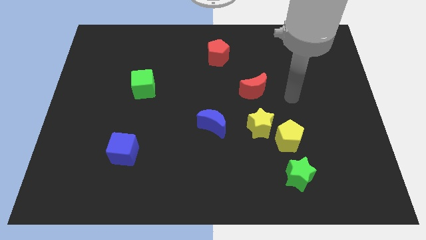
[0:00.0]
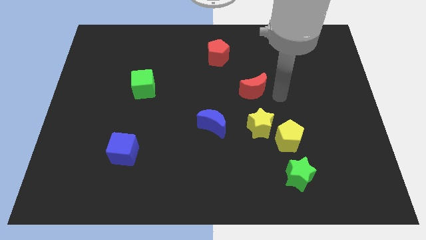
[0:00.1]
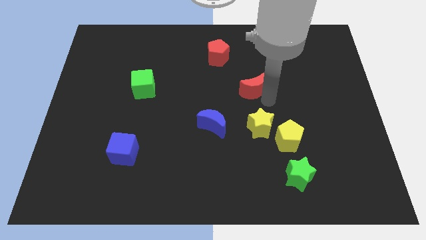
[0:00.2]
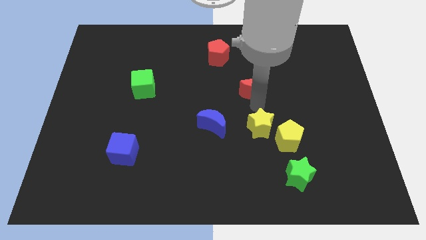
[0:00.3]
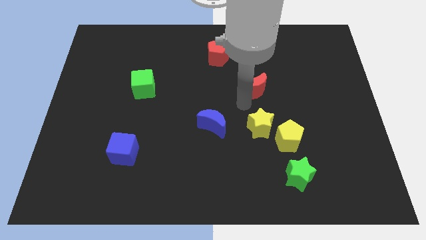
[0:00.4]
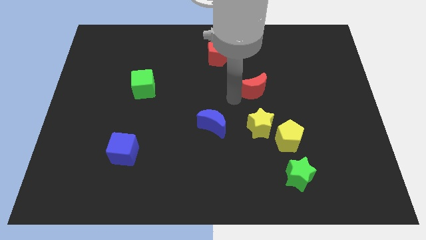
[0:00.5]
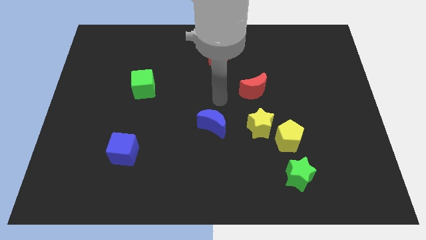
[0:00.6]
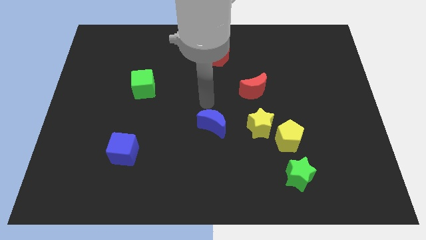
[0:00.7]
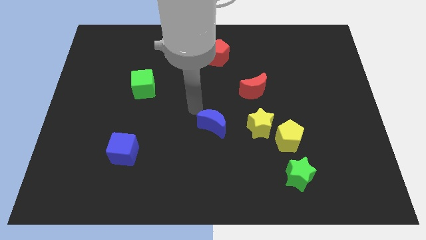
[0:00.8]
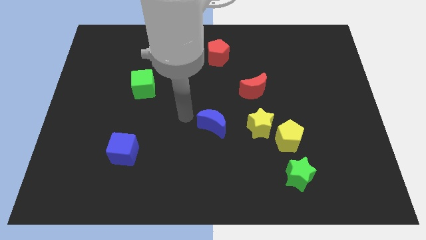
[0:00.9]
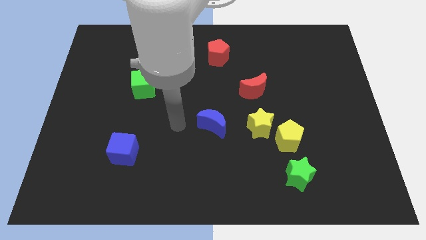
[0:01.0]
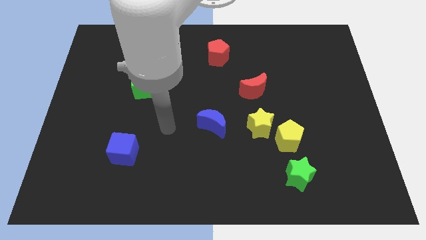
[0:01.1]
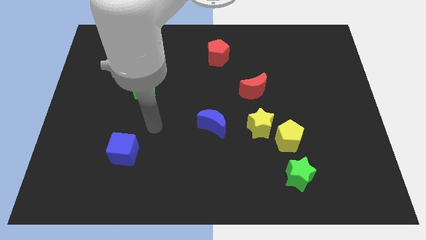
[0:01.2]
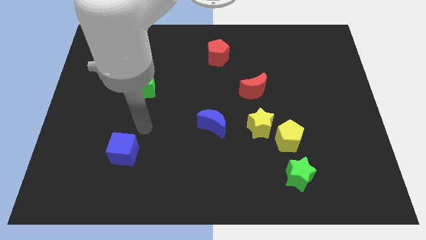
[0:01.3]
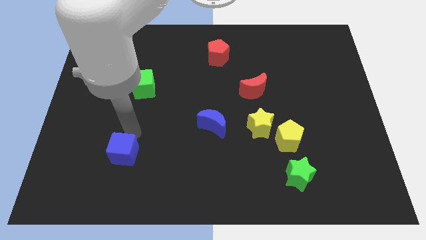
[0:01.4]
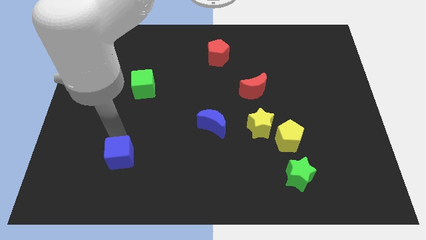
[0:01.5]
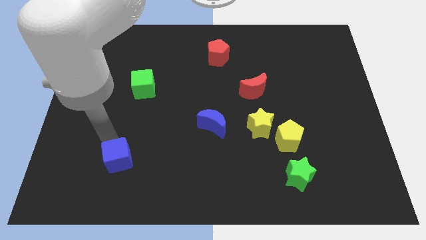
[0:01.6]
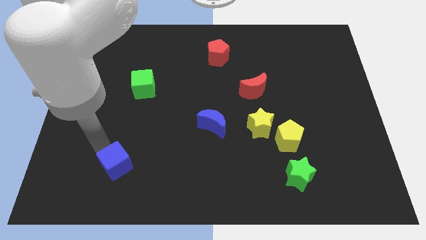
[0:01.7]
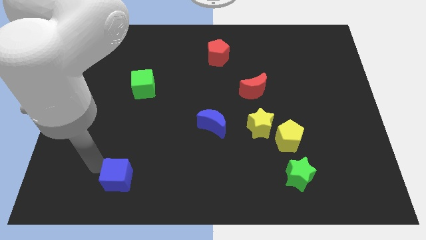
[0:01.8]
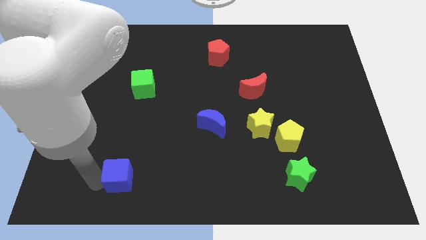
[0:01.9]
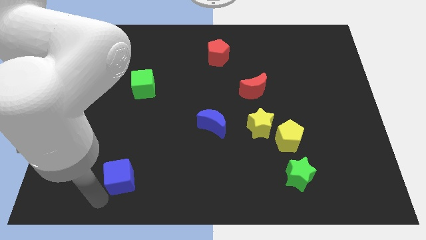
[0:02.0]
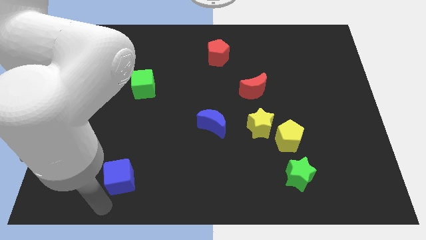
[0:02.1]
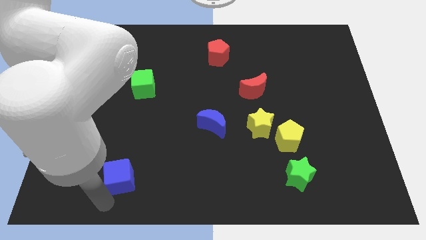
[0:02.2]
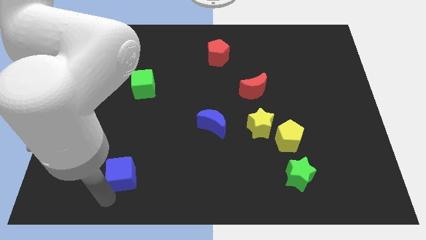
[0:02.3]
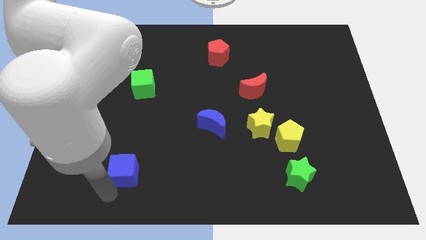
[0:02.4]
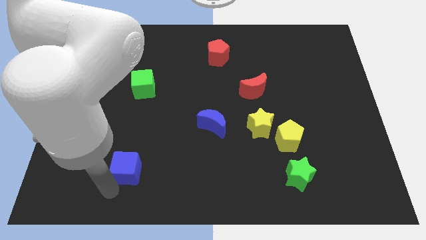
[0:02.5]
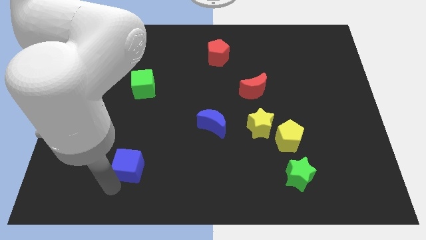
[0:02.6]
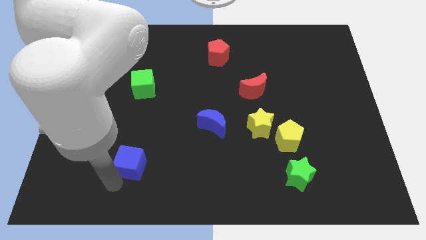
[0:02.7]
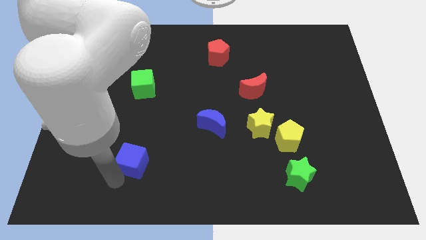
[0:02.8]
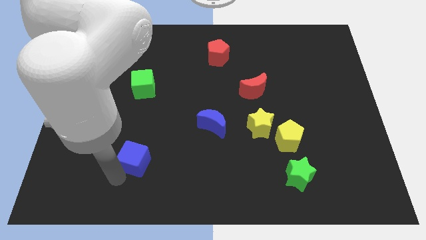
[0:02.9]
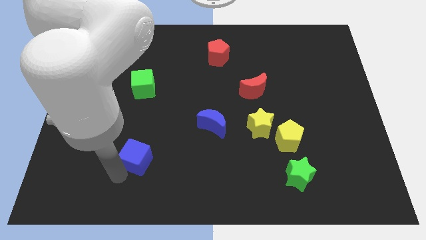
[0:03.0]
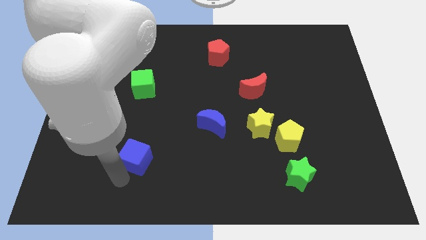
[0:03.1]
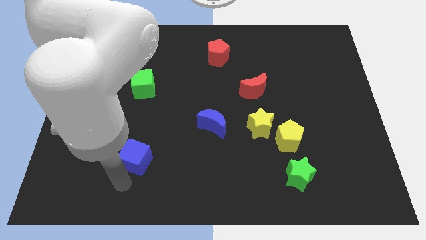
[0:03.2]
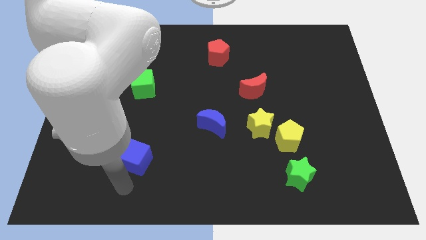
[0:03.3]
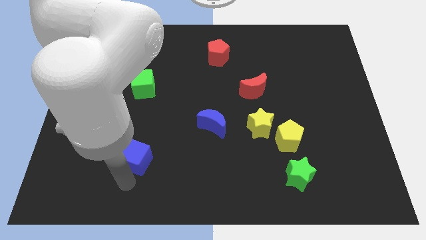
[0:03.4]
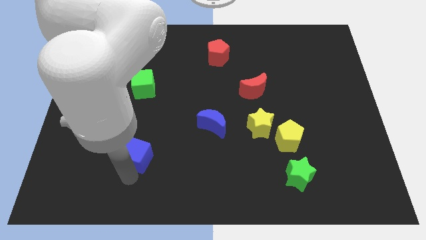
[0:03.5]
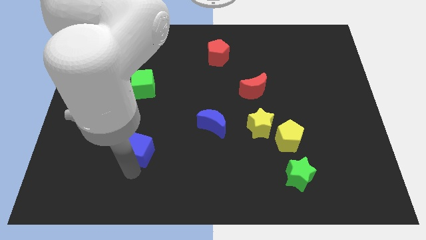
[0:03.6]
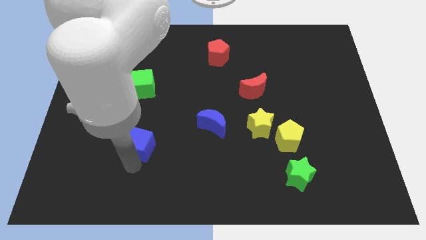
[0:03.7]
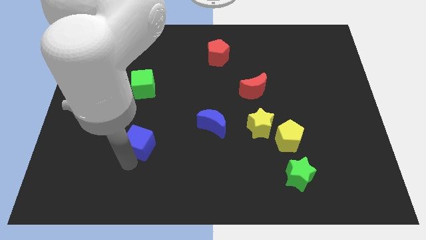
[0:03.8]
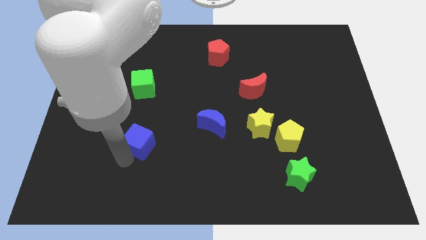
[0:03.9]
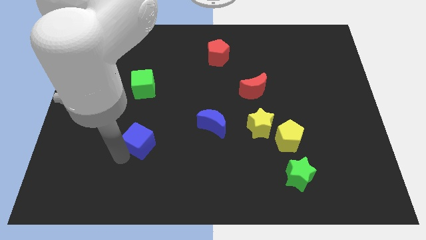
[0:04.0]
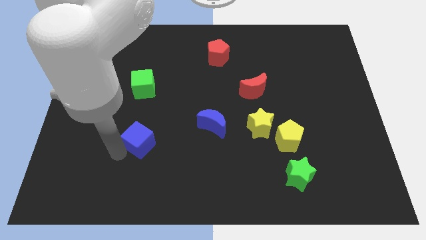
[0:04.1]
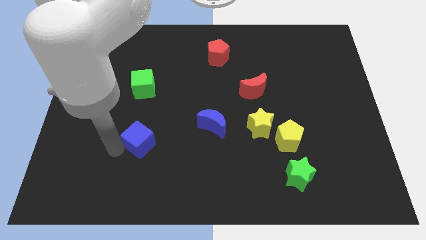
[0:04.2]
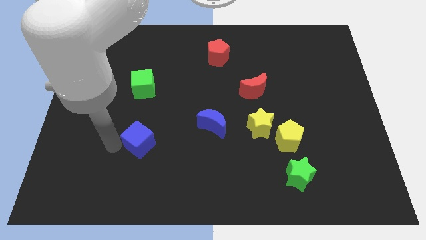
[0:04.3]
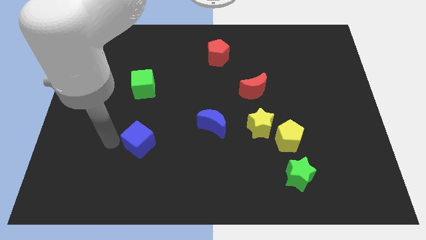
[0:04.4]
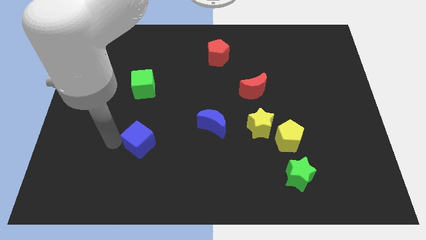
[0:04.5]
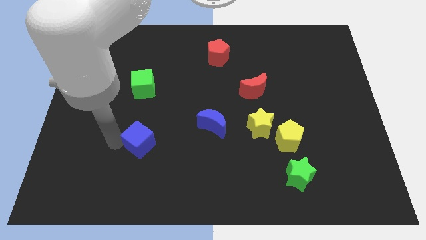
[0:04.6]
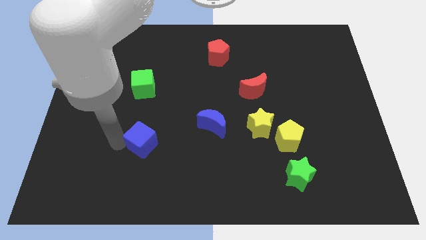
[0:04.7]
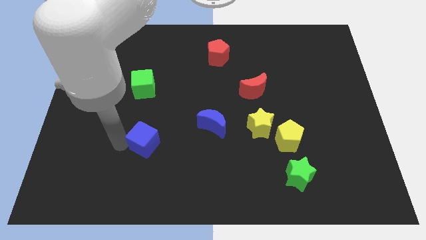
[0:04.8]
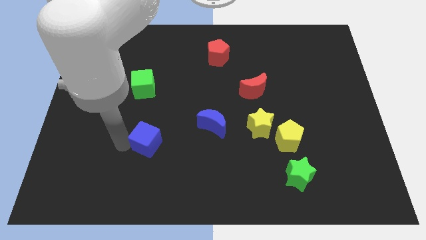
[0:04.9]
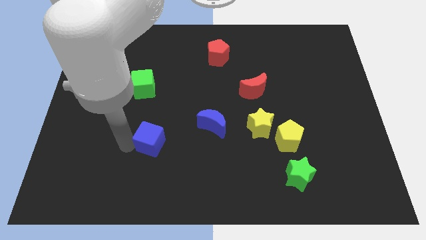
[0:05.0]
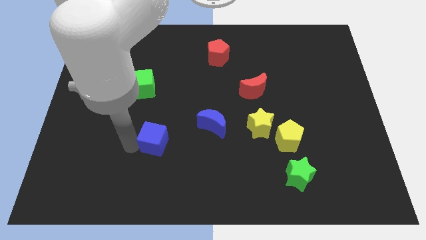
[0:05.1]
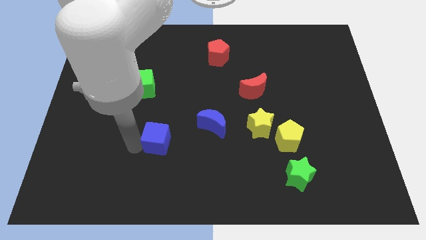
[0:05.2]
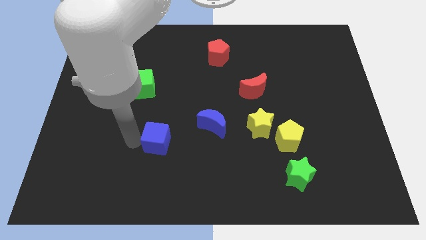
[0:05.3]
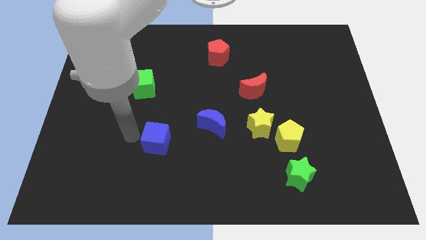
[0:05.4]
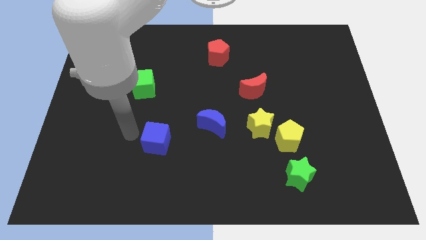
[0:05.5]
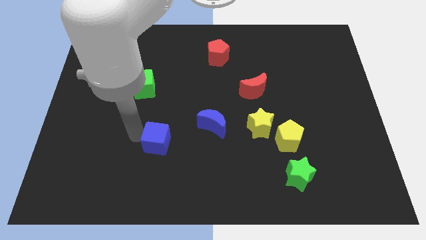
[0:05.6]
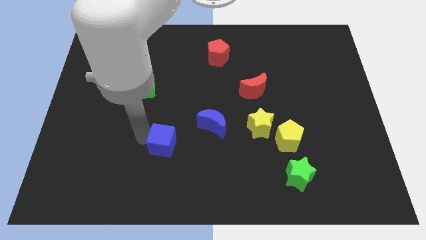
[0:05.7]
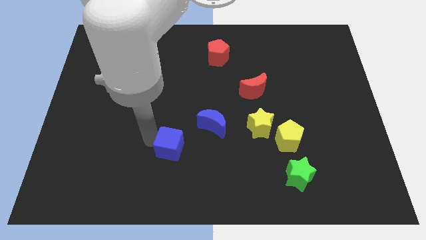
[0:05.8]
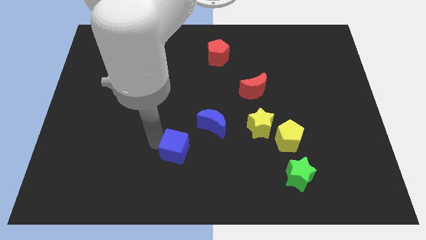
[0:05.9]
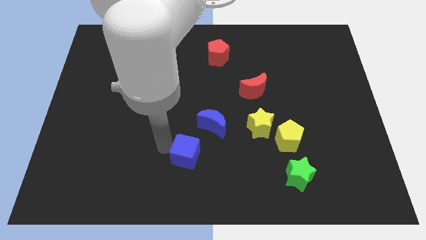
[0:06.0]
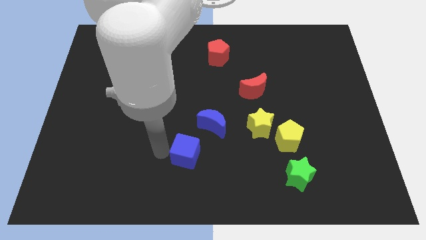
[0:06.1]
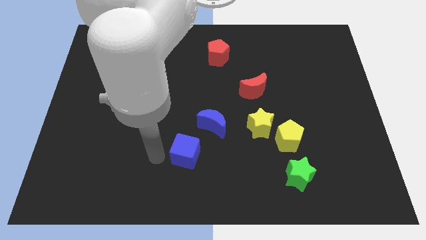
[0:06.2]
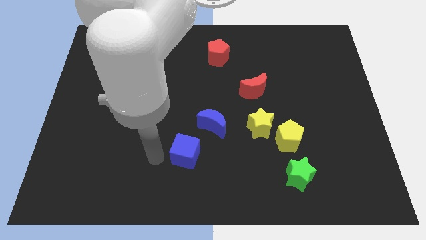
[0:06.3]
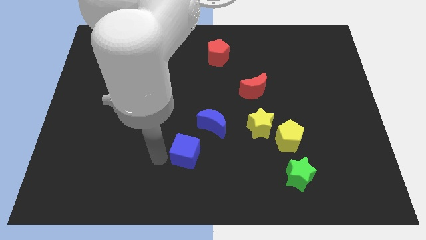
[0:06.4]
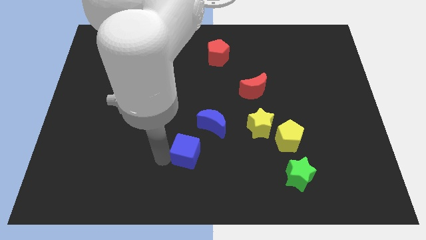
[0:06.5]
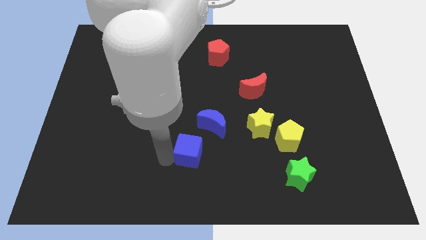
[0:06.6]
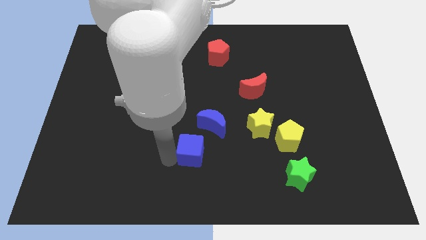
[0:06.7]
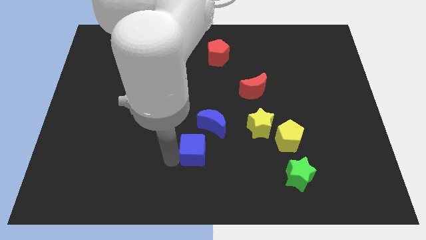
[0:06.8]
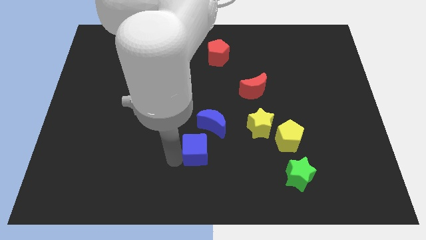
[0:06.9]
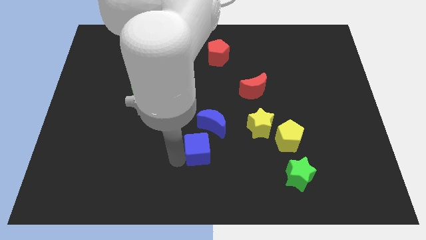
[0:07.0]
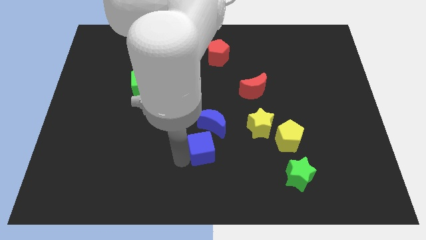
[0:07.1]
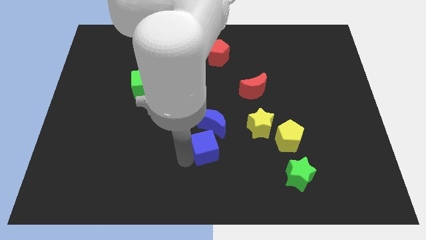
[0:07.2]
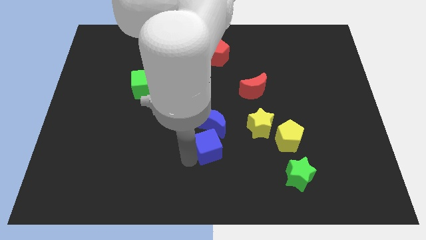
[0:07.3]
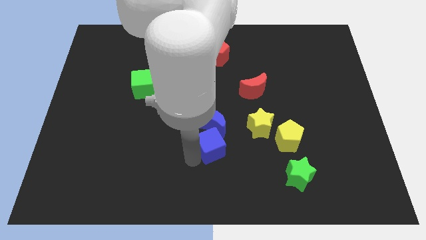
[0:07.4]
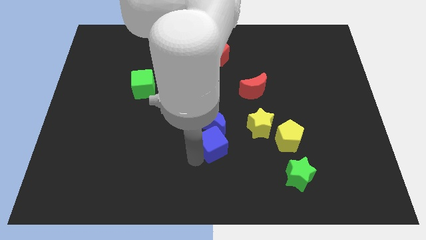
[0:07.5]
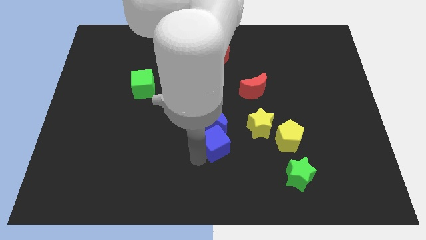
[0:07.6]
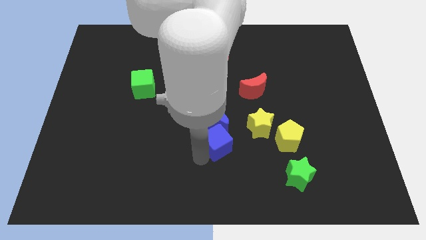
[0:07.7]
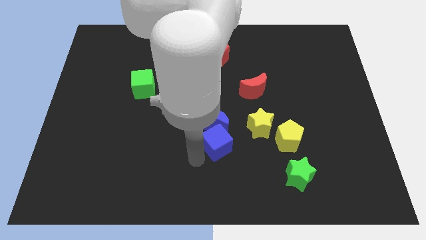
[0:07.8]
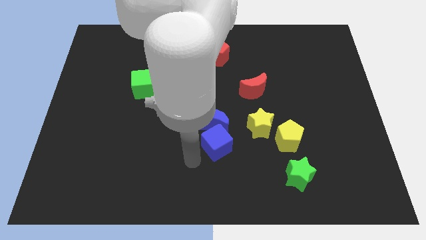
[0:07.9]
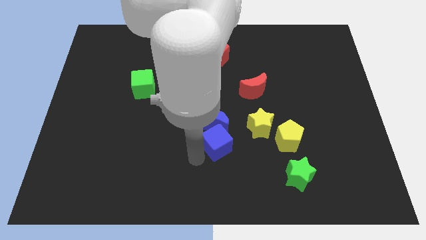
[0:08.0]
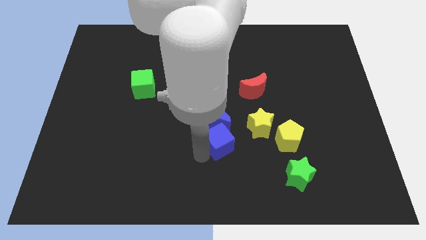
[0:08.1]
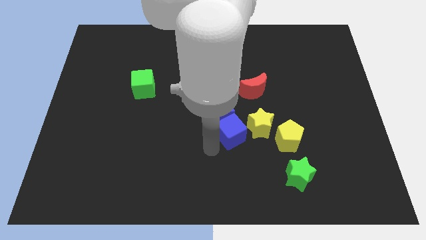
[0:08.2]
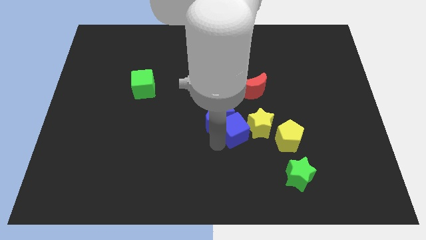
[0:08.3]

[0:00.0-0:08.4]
push the blue cube close to the yellow star
